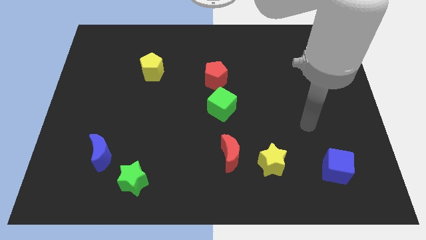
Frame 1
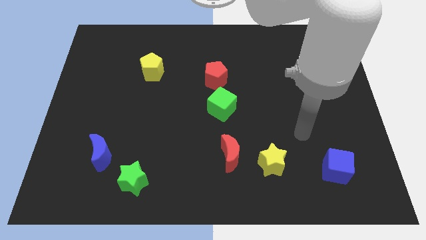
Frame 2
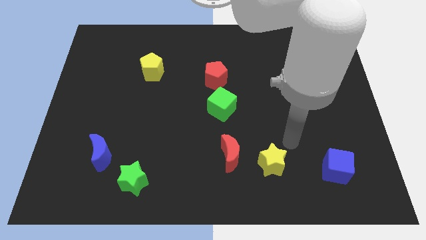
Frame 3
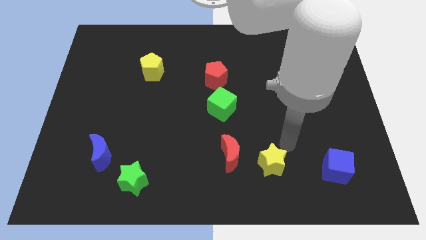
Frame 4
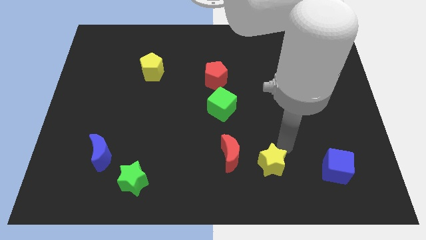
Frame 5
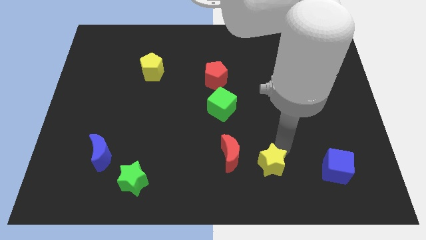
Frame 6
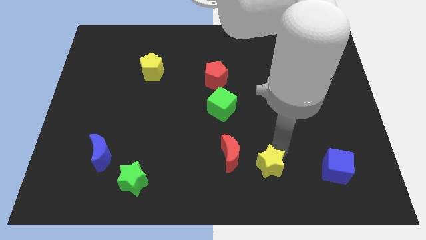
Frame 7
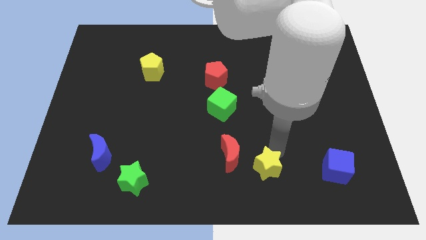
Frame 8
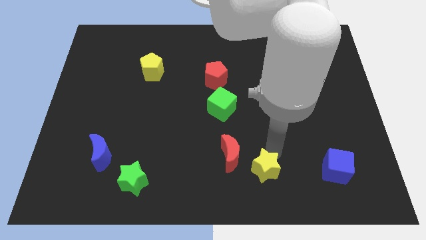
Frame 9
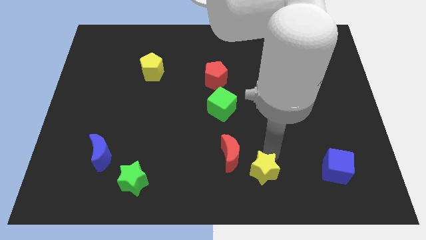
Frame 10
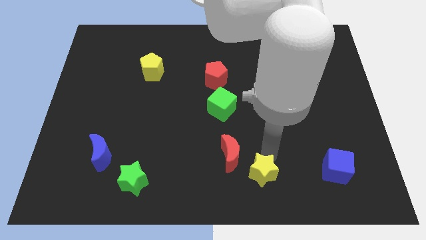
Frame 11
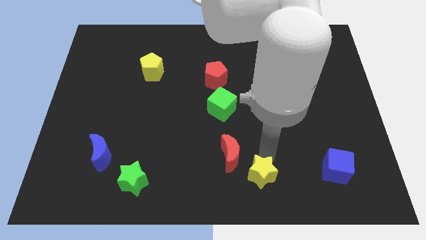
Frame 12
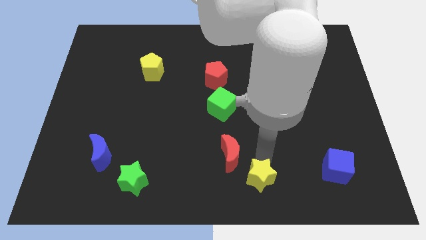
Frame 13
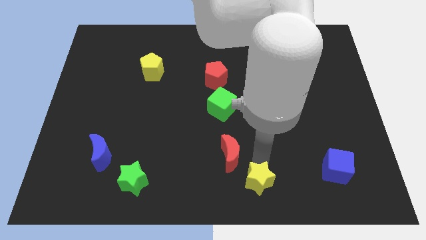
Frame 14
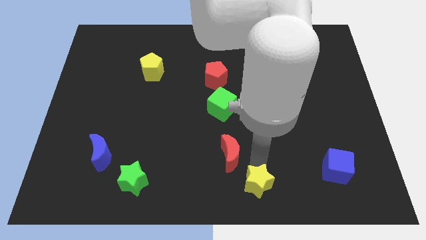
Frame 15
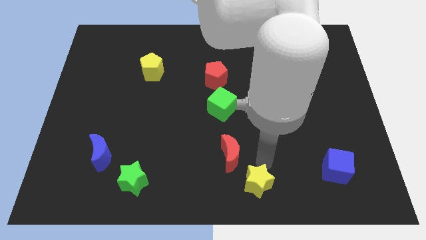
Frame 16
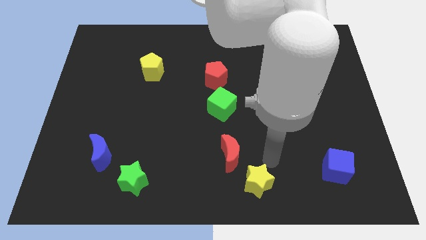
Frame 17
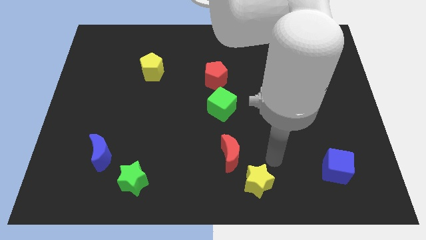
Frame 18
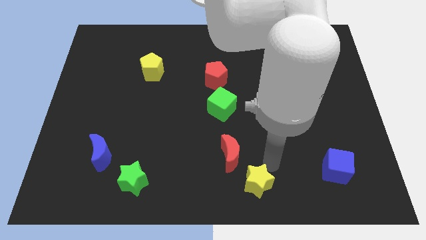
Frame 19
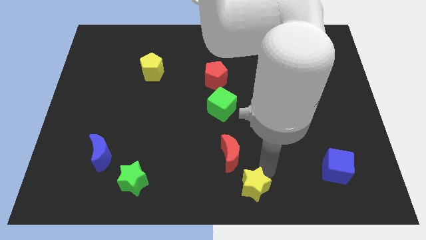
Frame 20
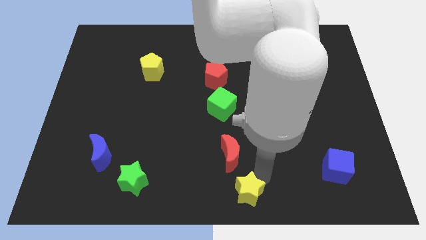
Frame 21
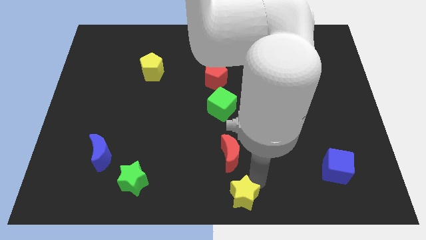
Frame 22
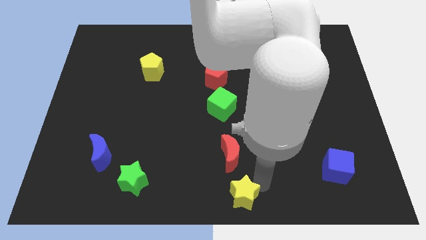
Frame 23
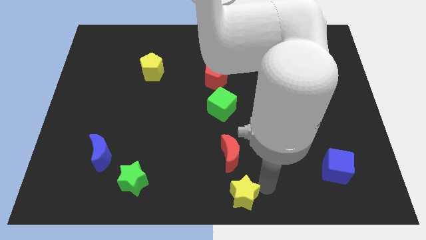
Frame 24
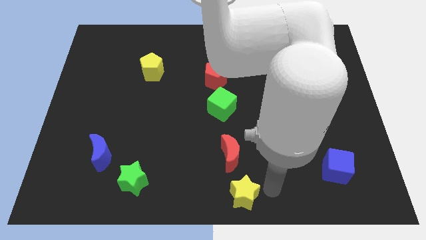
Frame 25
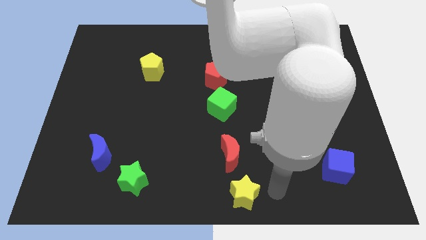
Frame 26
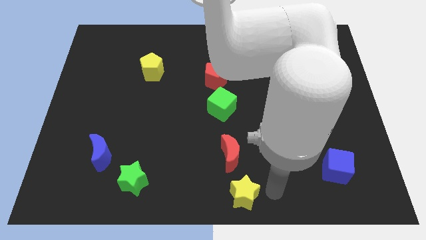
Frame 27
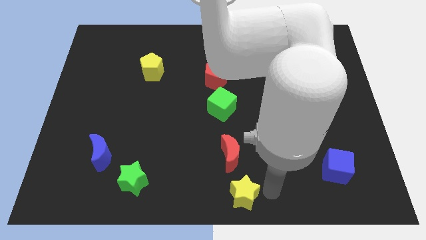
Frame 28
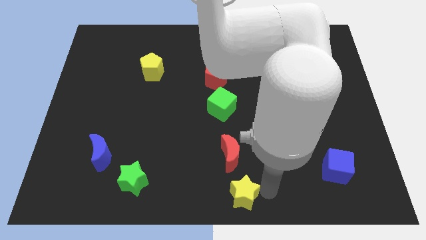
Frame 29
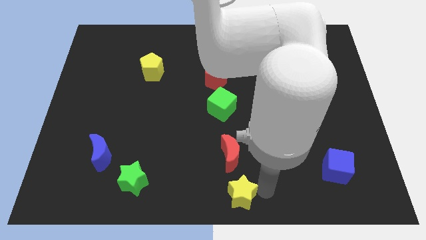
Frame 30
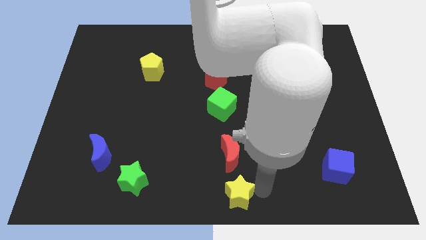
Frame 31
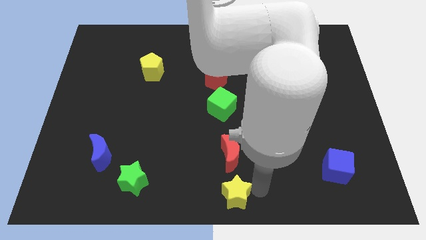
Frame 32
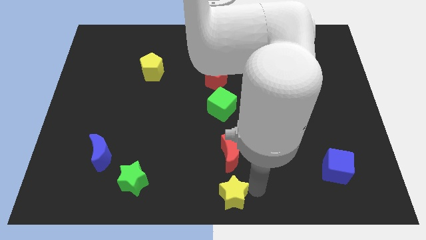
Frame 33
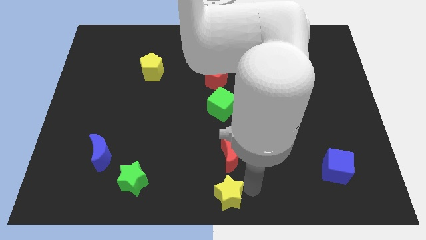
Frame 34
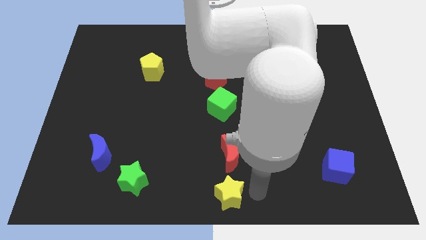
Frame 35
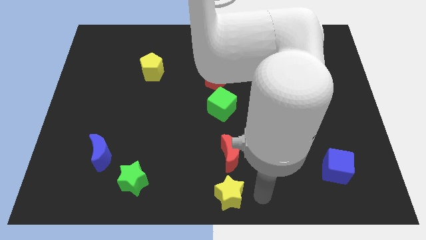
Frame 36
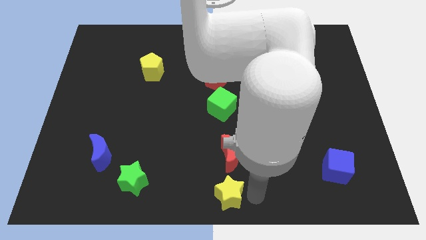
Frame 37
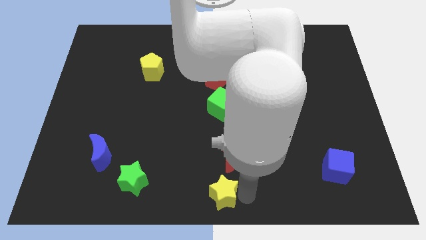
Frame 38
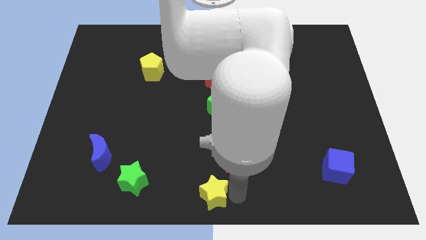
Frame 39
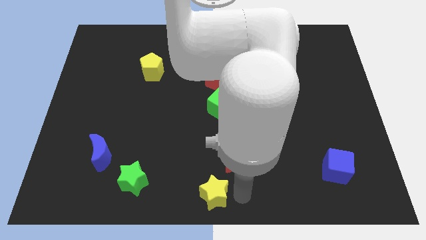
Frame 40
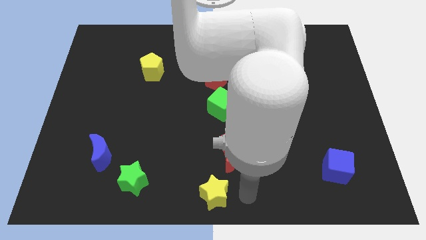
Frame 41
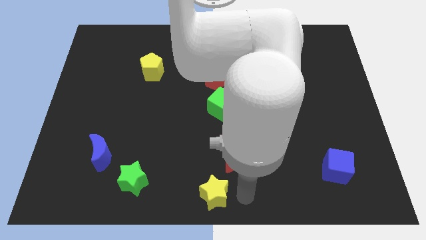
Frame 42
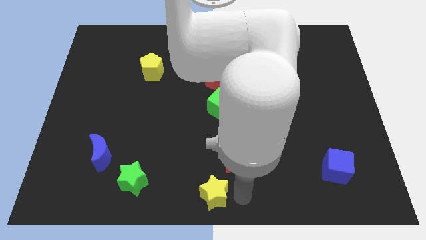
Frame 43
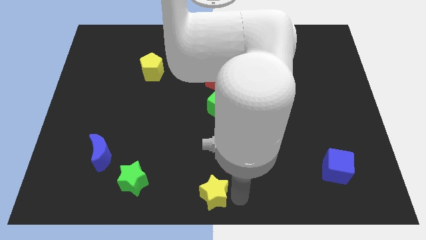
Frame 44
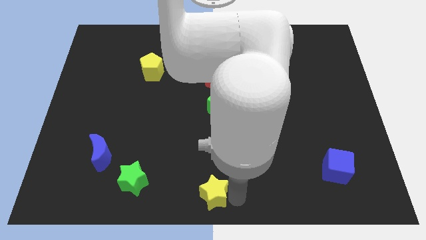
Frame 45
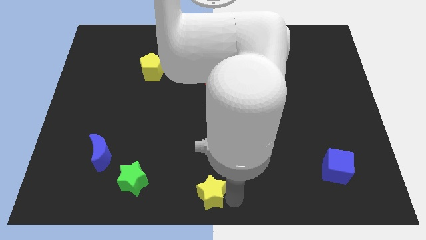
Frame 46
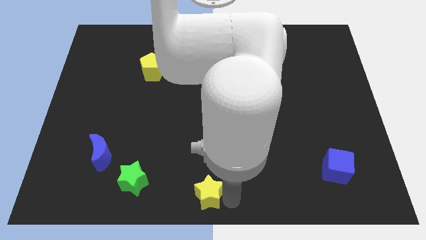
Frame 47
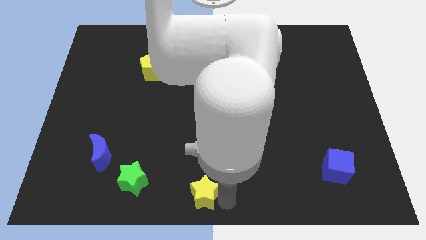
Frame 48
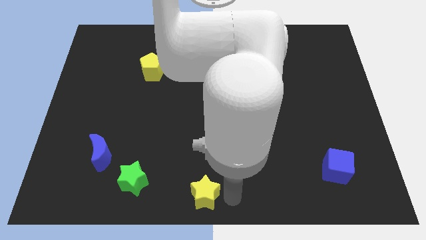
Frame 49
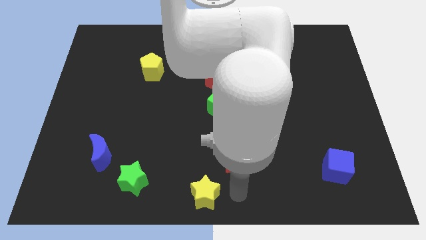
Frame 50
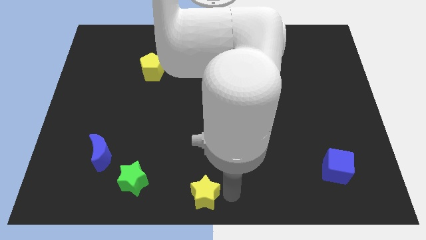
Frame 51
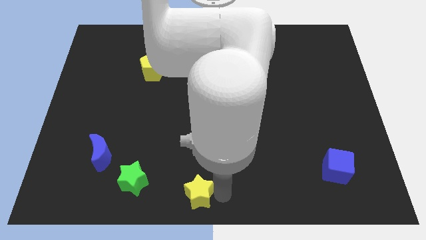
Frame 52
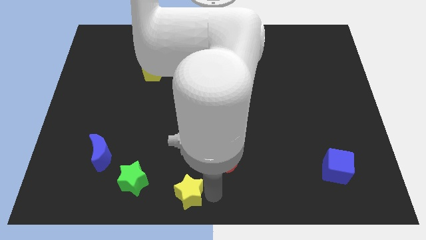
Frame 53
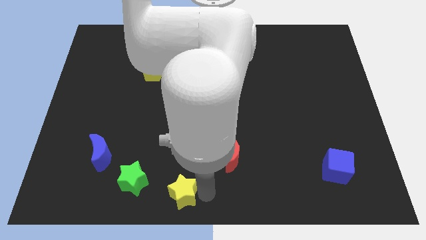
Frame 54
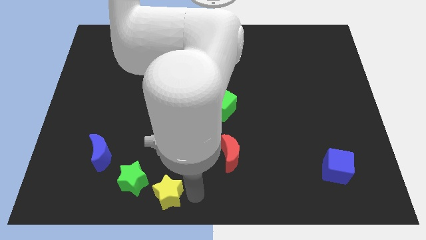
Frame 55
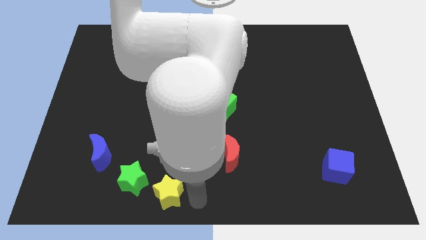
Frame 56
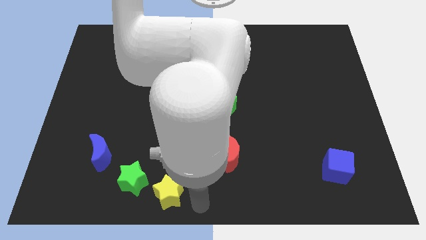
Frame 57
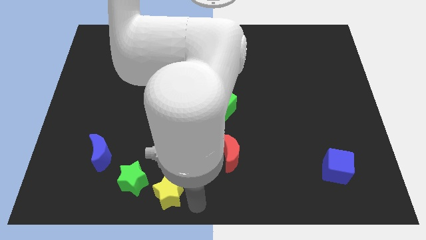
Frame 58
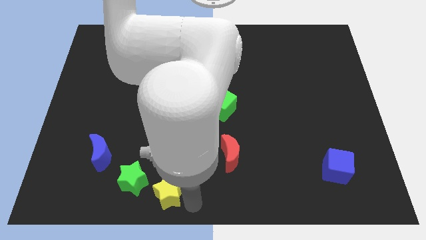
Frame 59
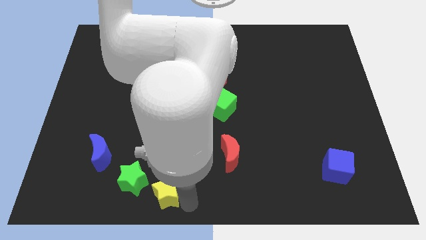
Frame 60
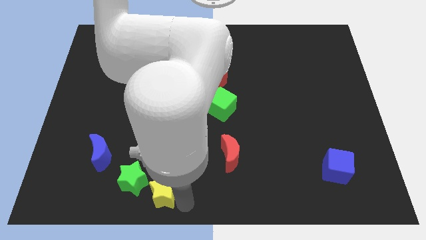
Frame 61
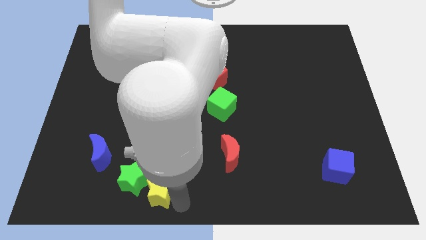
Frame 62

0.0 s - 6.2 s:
put the yellow star towards the green star

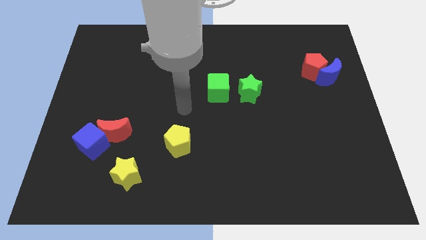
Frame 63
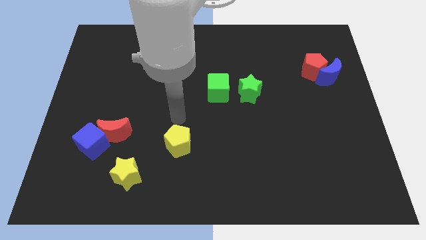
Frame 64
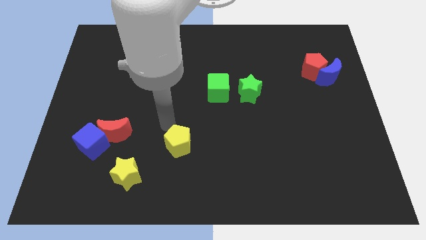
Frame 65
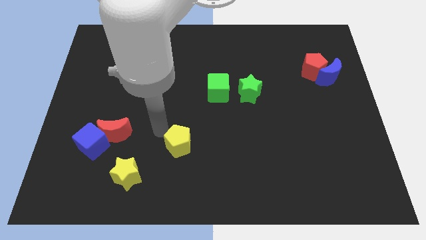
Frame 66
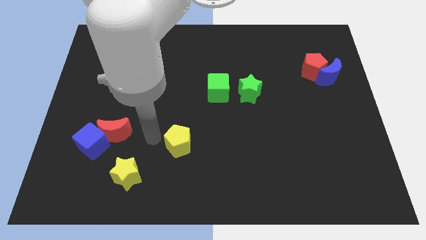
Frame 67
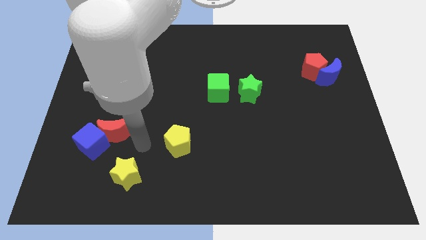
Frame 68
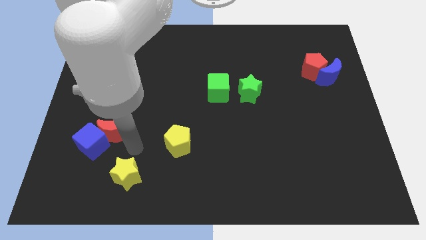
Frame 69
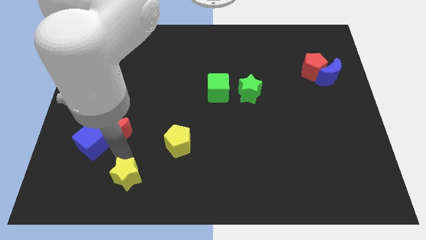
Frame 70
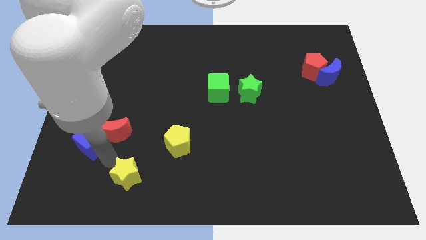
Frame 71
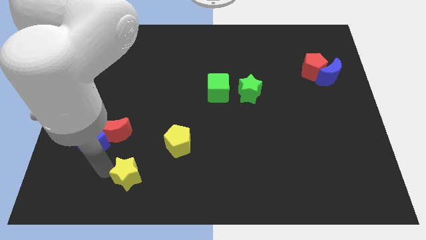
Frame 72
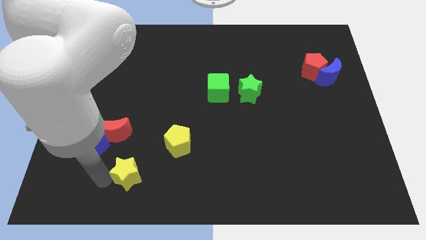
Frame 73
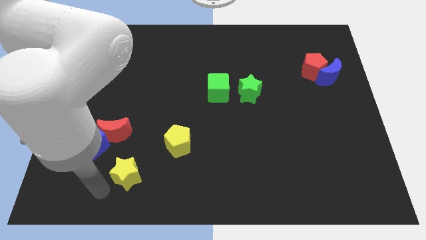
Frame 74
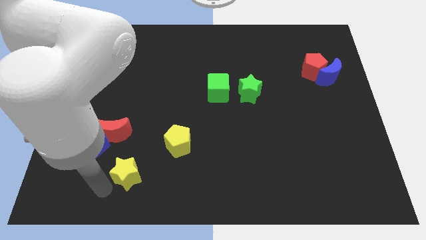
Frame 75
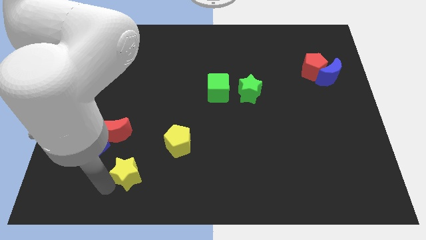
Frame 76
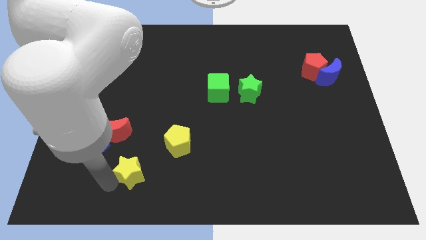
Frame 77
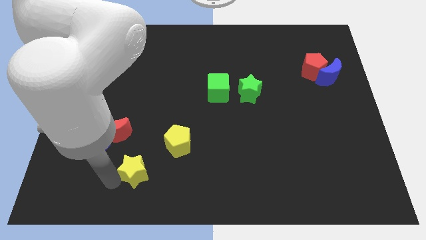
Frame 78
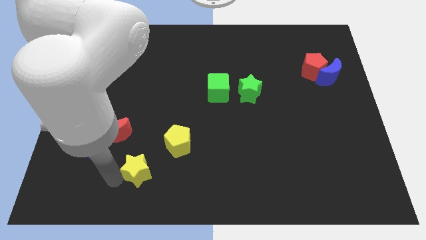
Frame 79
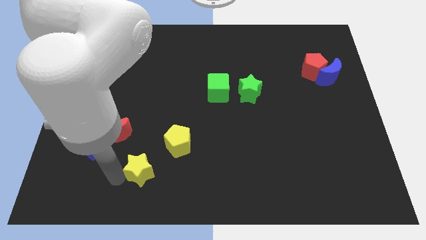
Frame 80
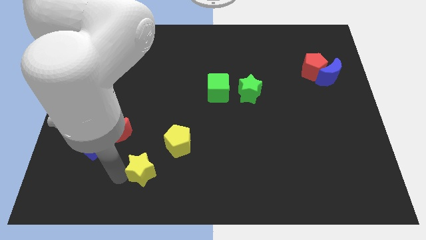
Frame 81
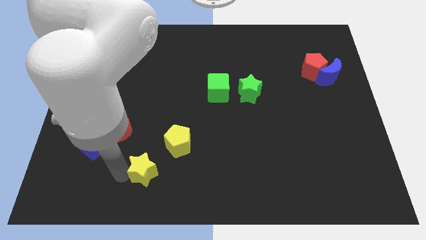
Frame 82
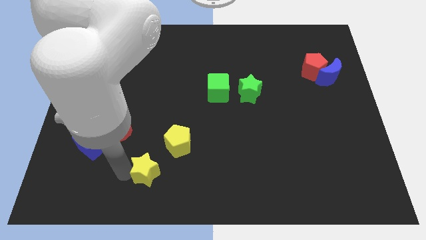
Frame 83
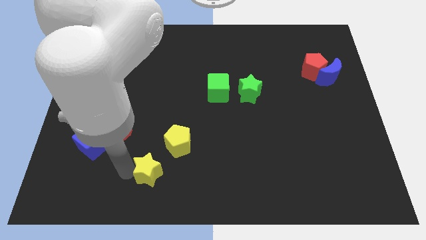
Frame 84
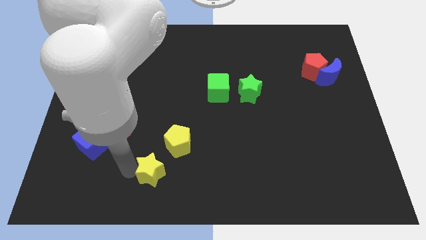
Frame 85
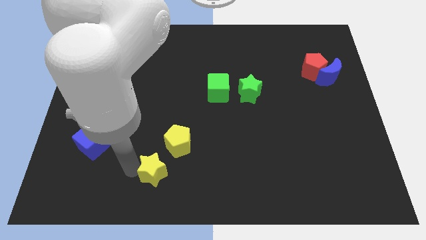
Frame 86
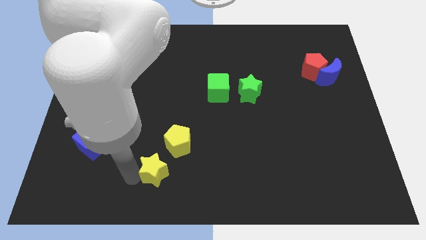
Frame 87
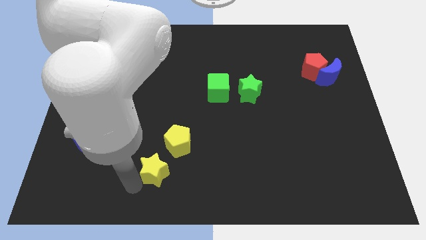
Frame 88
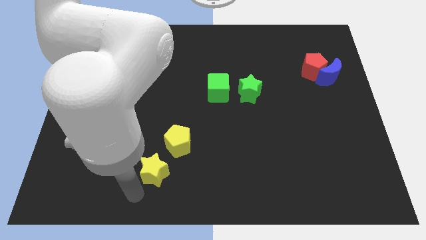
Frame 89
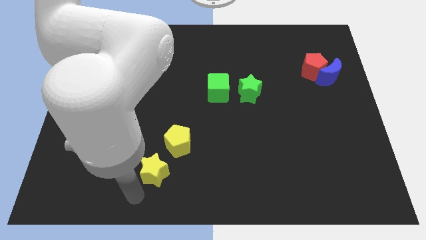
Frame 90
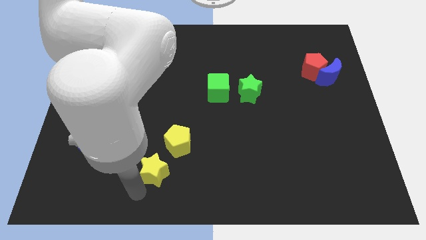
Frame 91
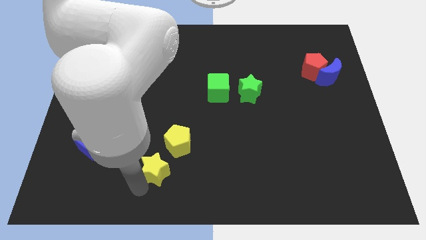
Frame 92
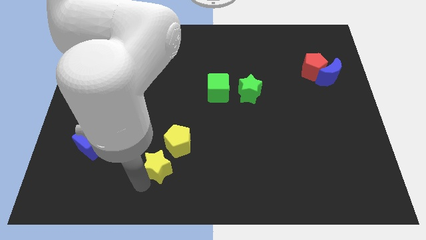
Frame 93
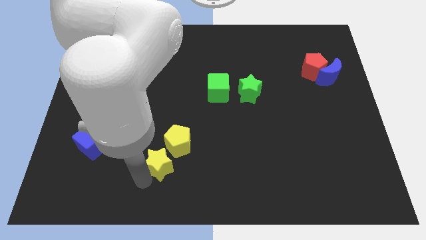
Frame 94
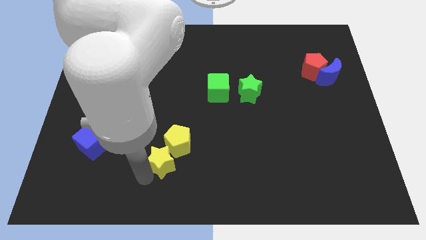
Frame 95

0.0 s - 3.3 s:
slide the yellow star towards the yellow pentagon
